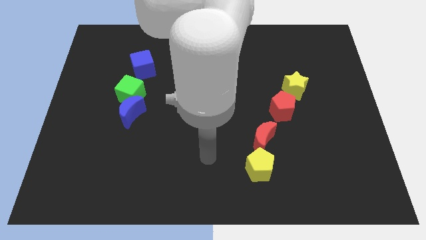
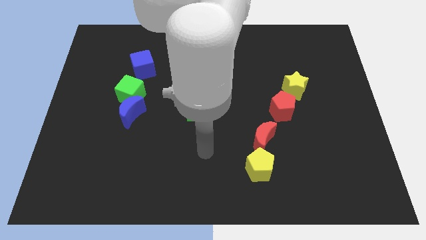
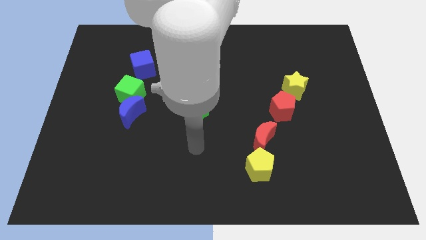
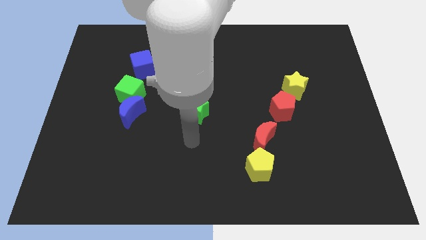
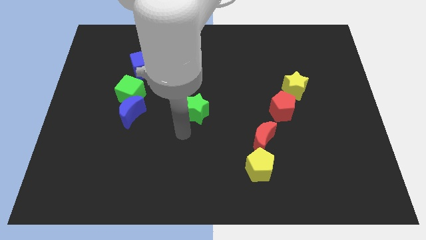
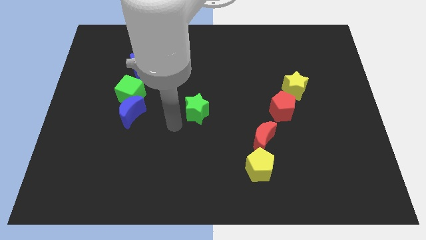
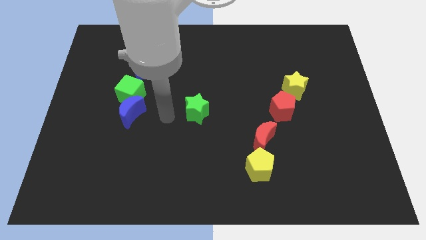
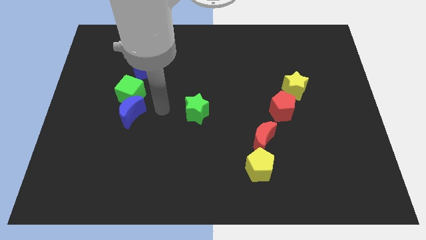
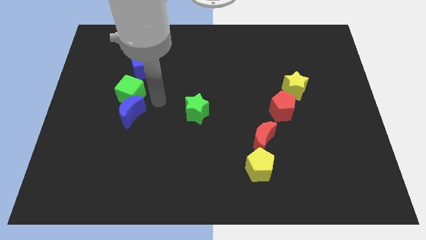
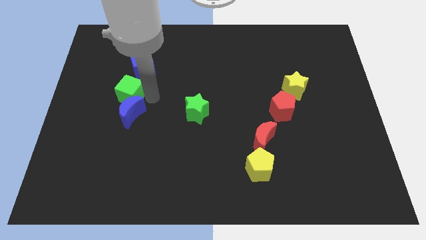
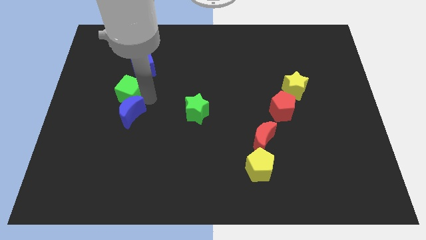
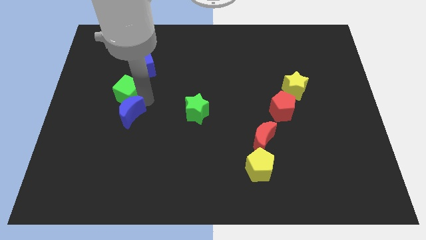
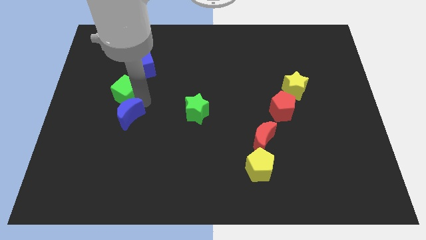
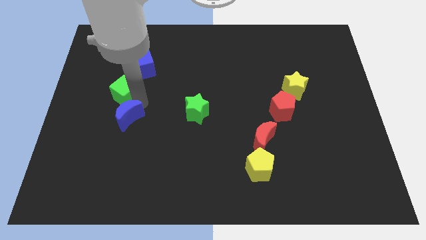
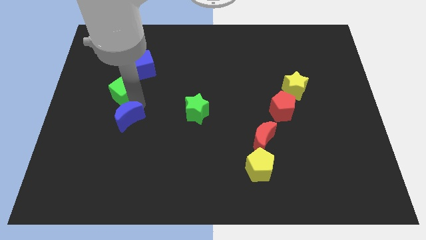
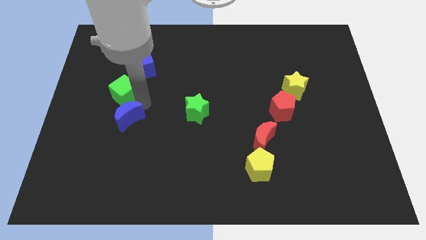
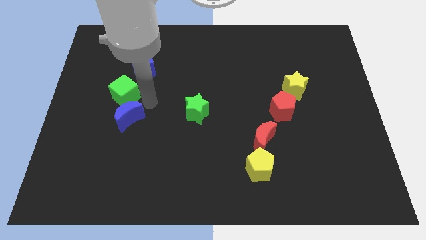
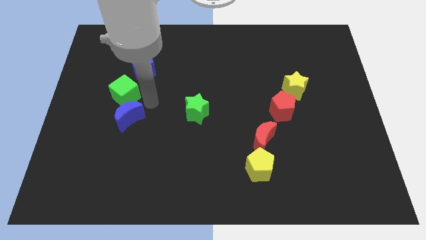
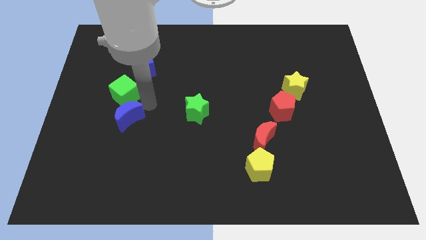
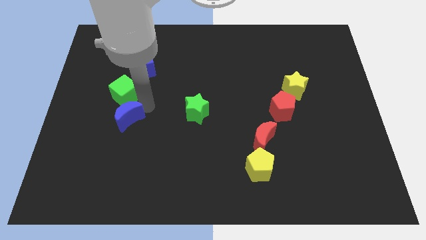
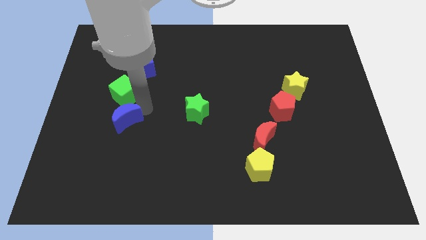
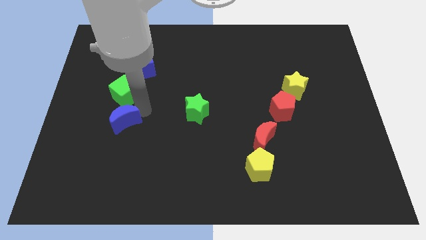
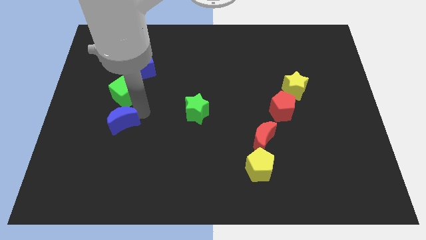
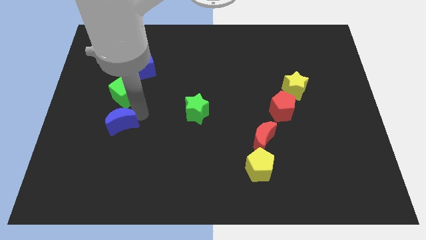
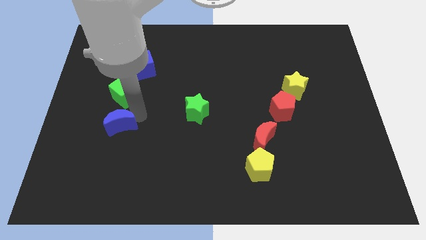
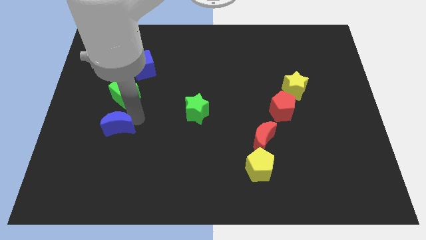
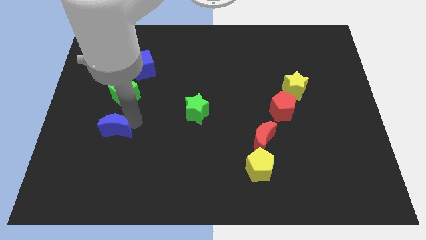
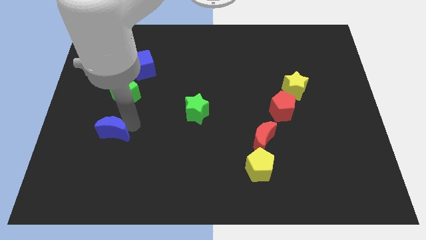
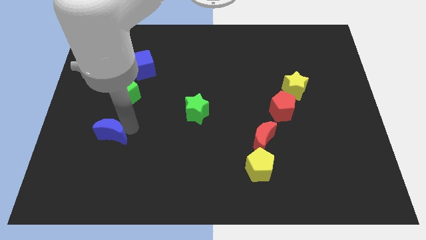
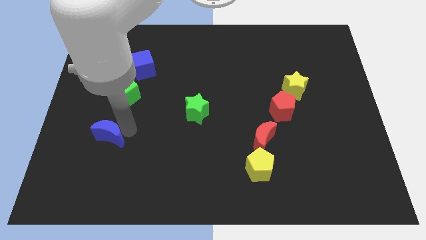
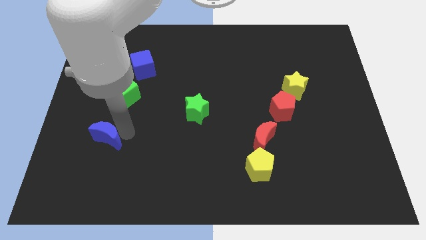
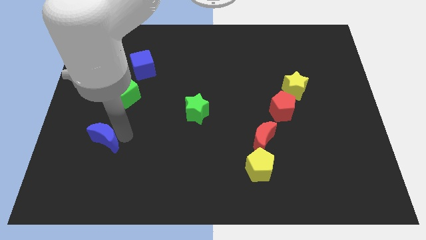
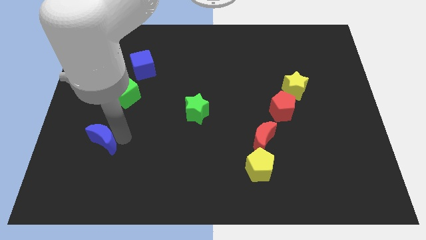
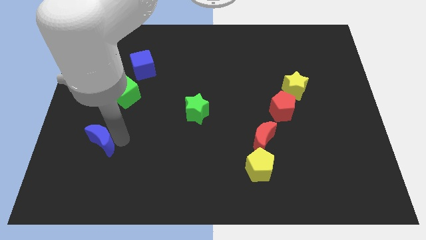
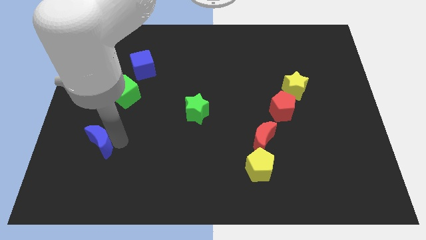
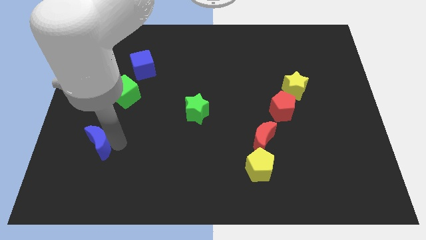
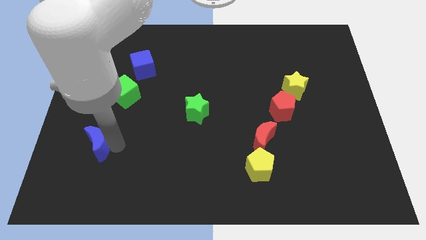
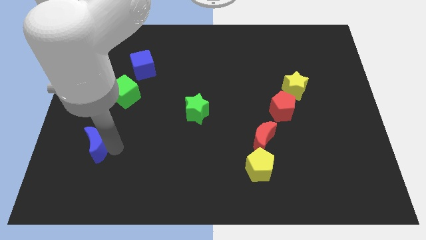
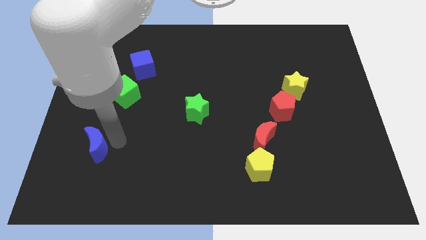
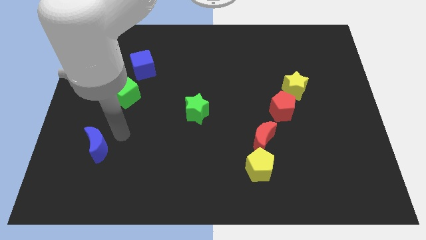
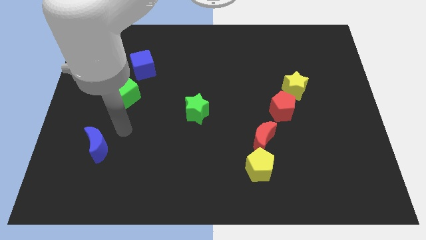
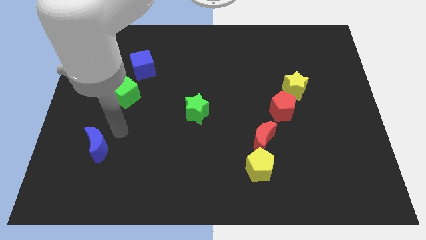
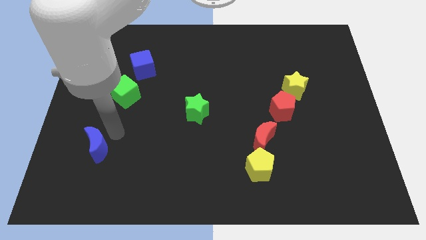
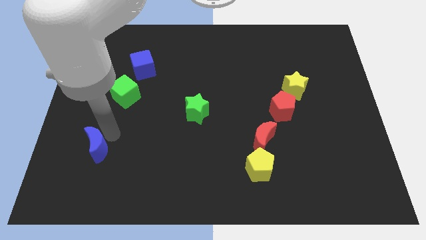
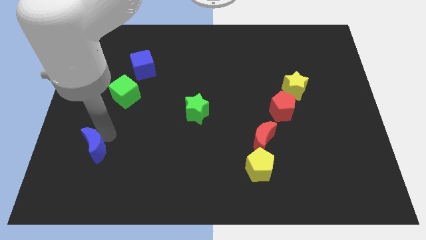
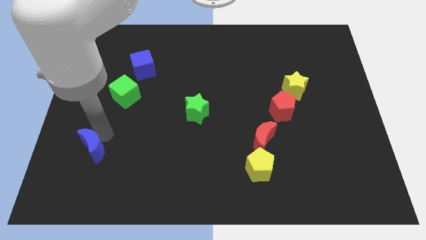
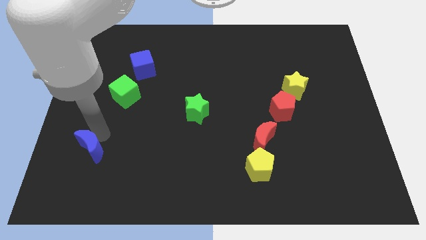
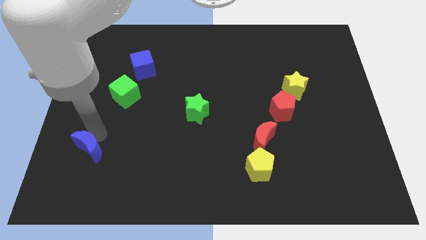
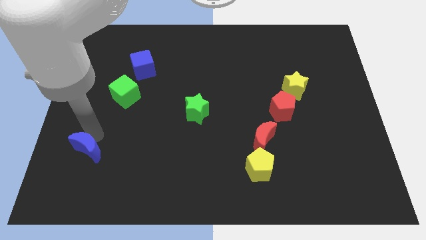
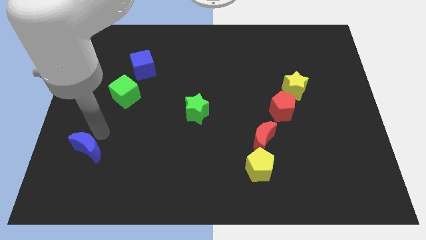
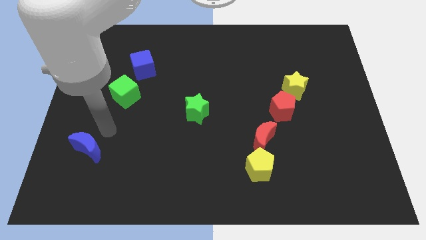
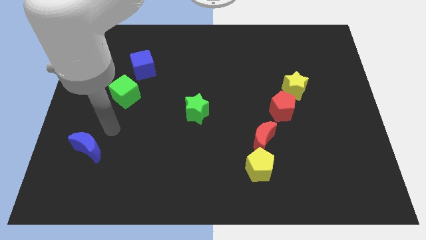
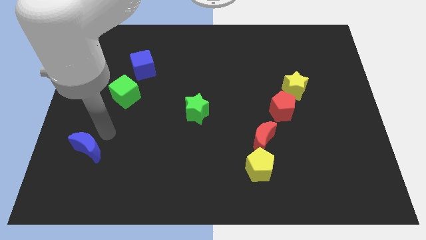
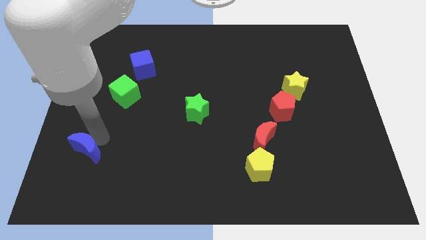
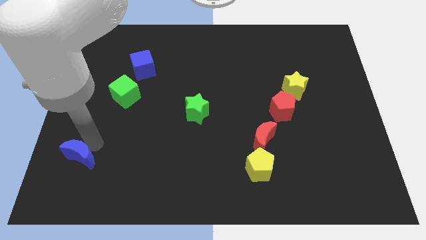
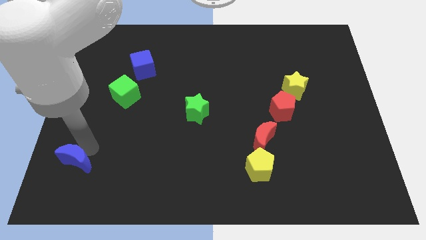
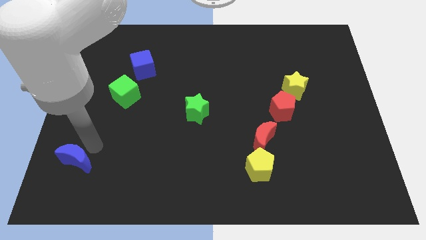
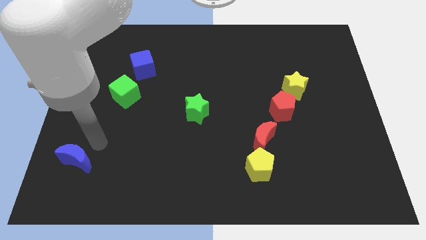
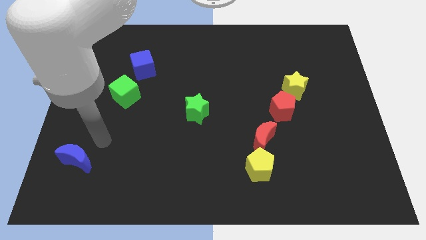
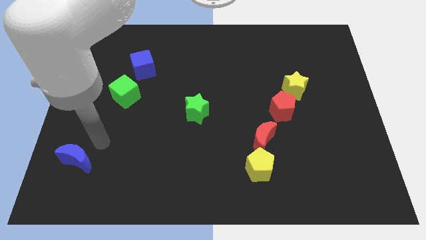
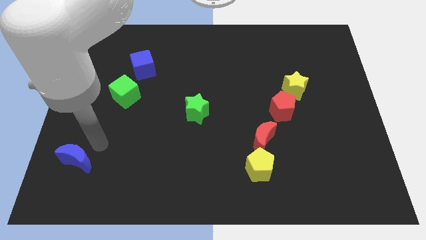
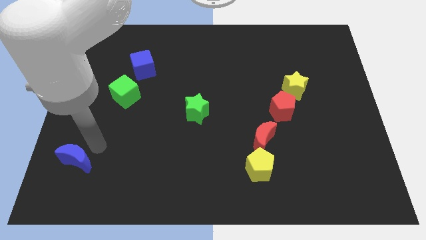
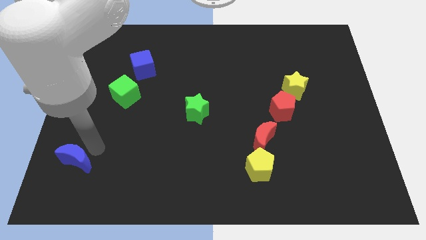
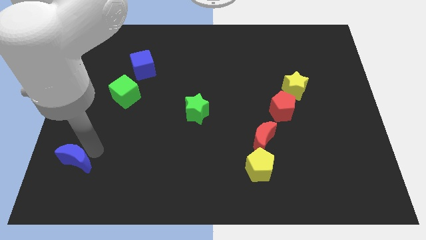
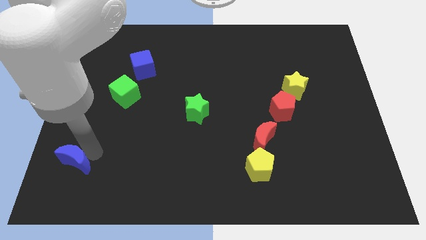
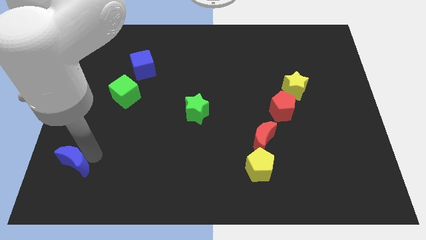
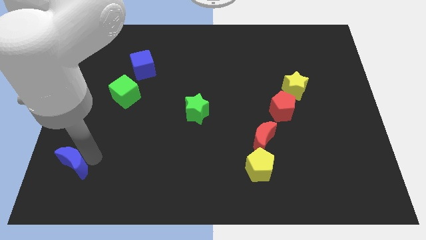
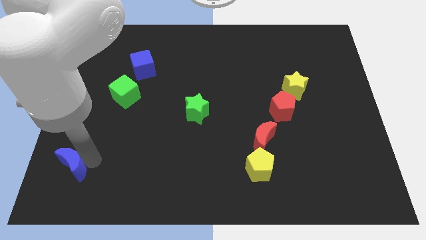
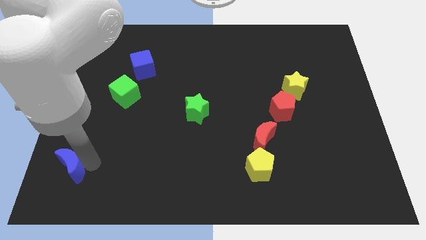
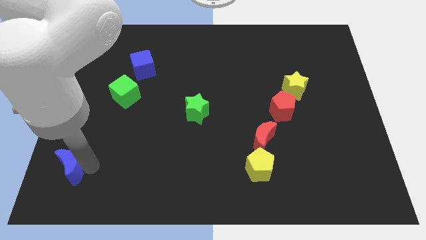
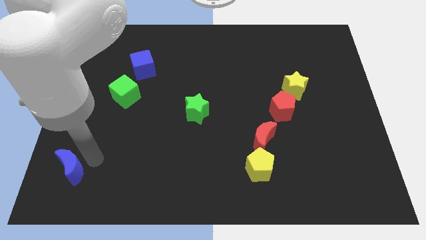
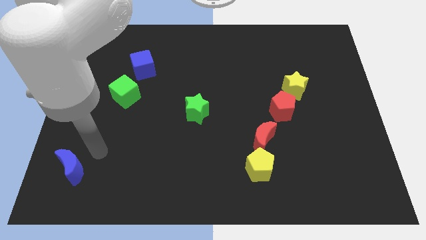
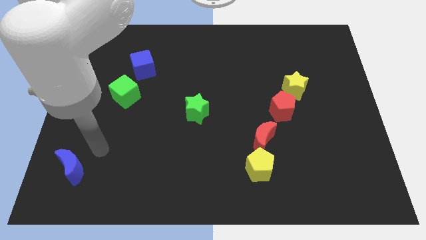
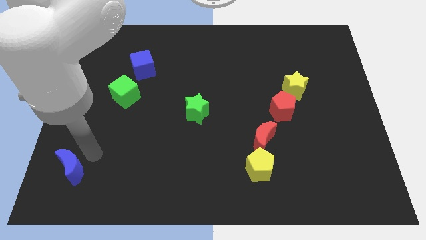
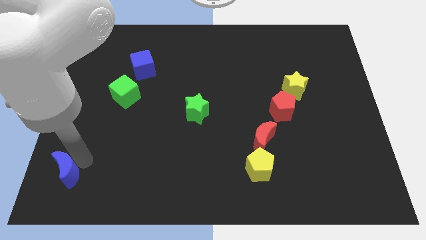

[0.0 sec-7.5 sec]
slide the blue moon to the bottom left
